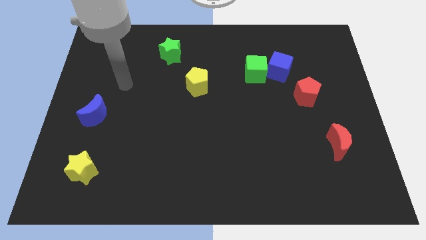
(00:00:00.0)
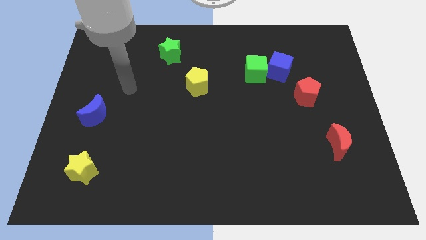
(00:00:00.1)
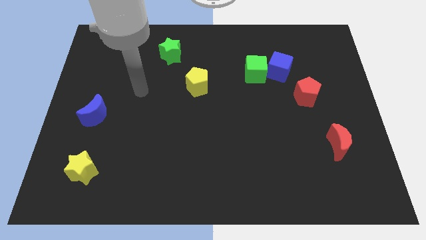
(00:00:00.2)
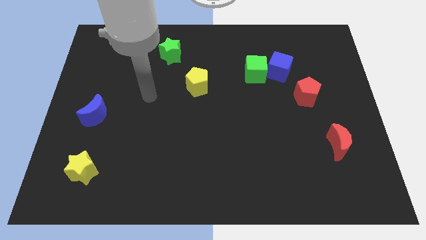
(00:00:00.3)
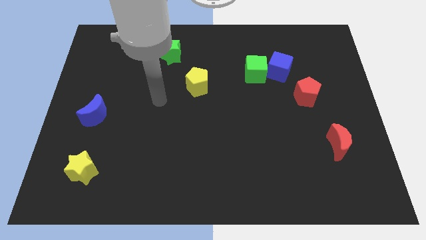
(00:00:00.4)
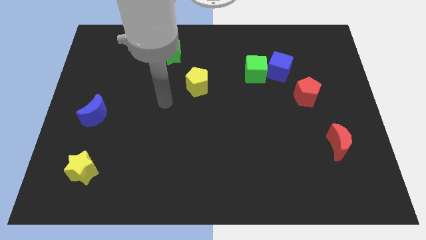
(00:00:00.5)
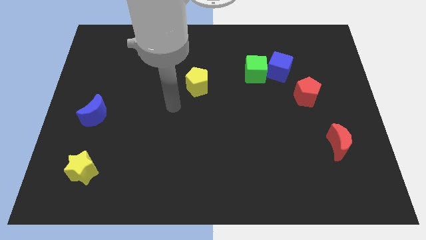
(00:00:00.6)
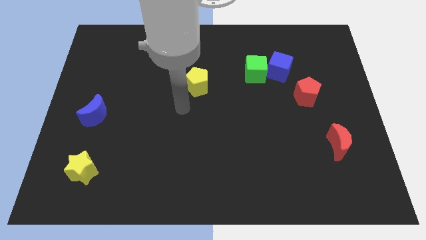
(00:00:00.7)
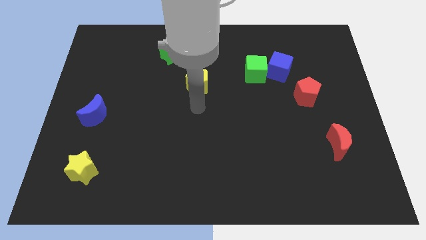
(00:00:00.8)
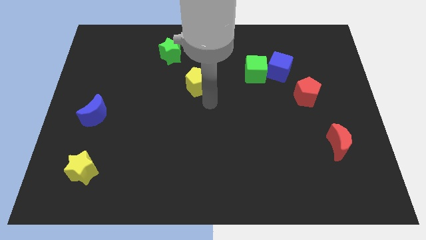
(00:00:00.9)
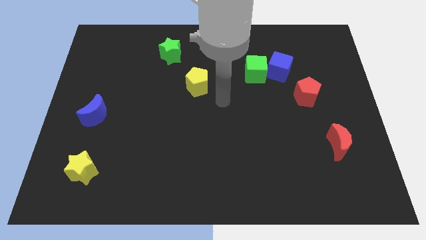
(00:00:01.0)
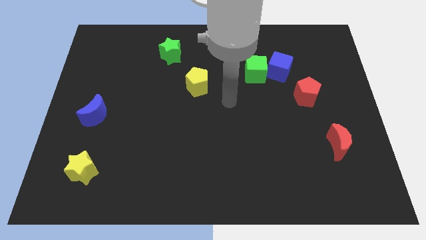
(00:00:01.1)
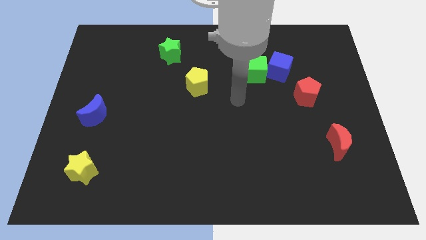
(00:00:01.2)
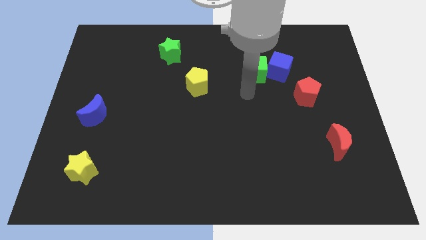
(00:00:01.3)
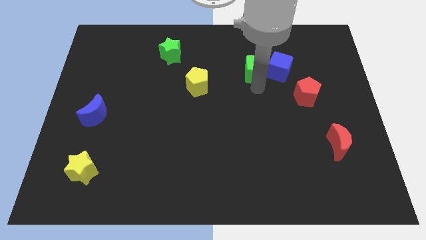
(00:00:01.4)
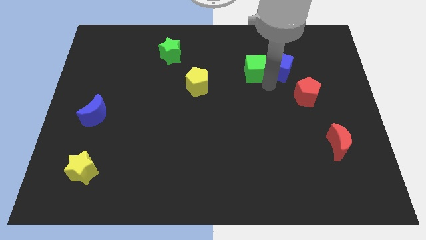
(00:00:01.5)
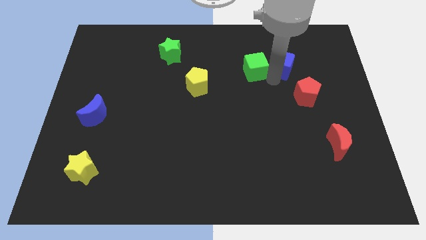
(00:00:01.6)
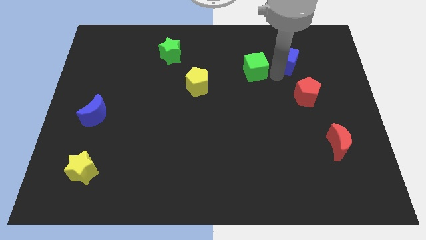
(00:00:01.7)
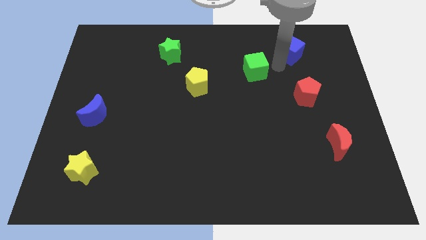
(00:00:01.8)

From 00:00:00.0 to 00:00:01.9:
pull the green cube apart from the blue cube

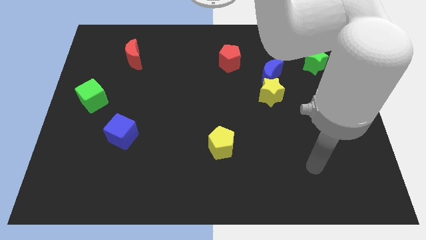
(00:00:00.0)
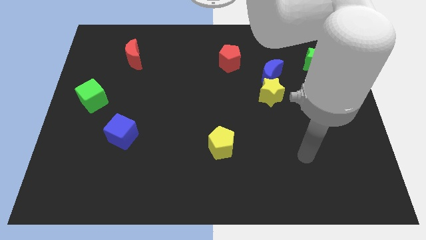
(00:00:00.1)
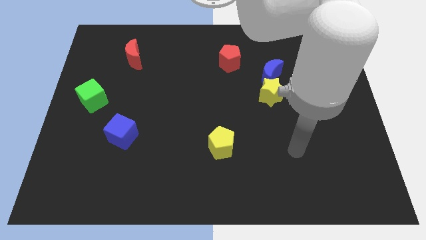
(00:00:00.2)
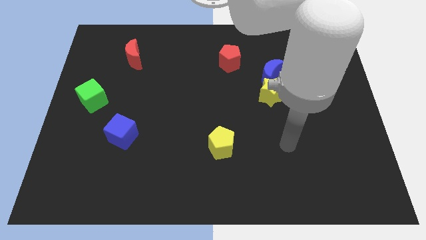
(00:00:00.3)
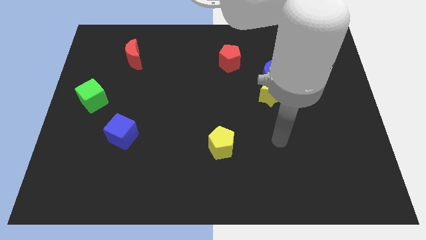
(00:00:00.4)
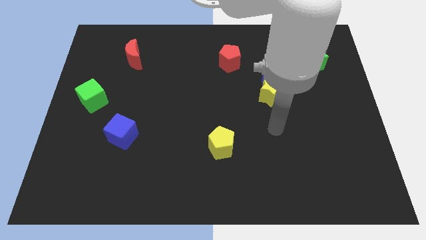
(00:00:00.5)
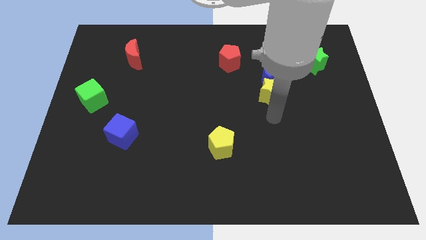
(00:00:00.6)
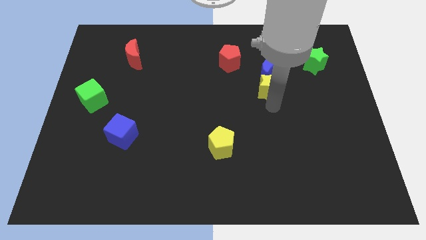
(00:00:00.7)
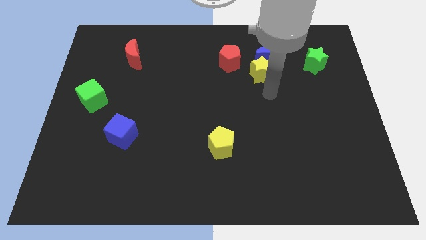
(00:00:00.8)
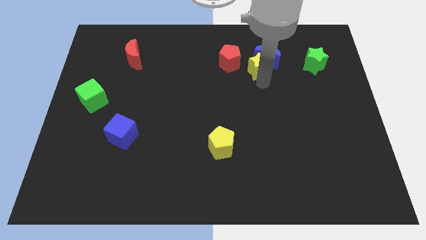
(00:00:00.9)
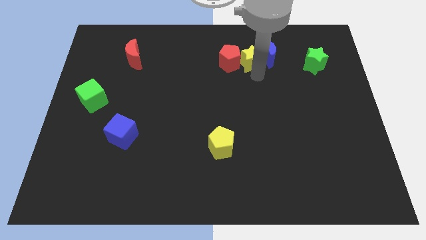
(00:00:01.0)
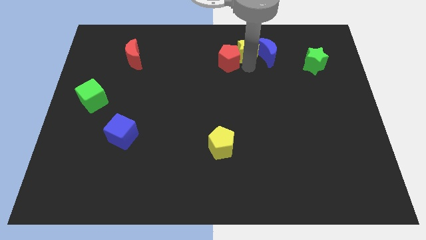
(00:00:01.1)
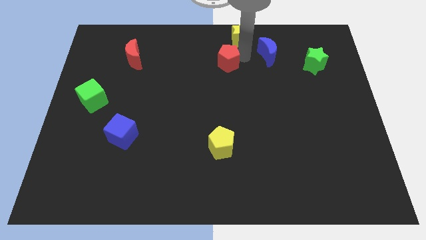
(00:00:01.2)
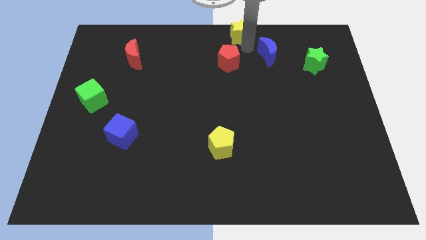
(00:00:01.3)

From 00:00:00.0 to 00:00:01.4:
separate the blue moon from the yellow star

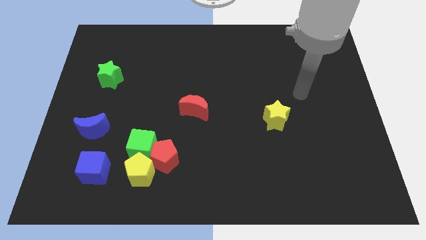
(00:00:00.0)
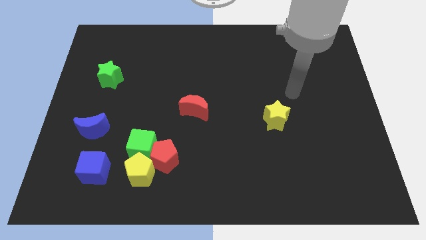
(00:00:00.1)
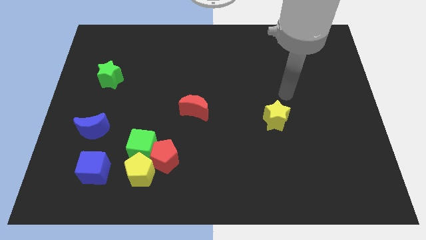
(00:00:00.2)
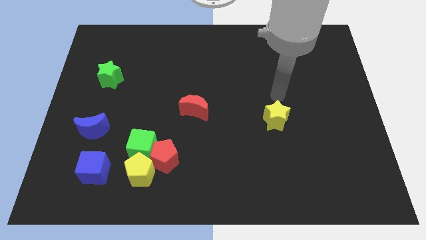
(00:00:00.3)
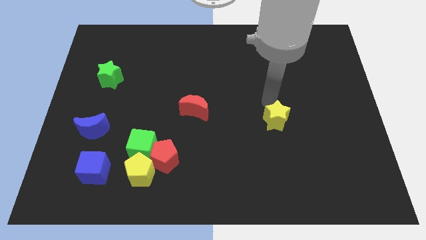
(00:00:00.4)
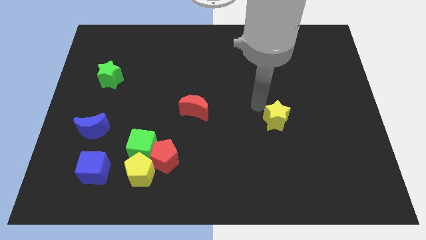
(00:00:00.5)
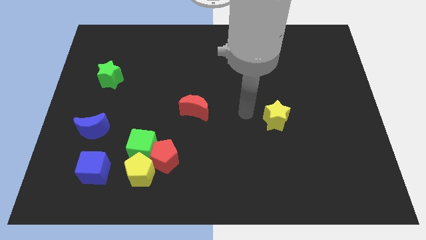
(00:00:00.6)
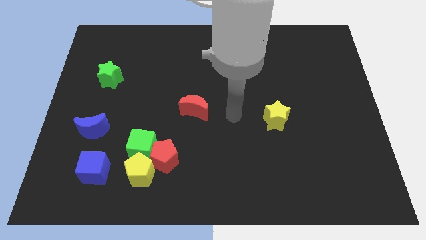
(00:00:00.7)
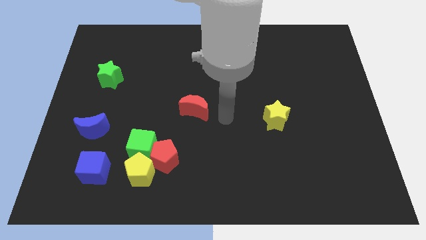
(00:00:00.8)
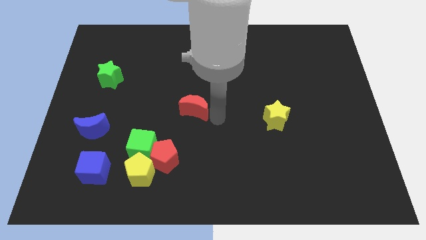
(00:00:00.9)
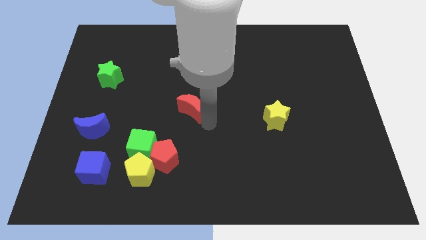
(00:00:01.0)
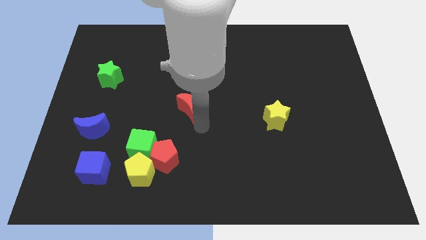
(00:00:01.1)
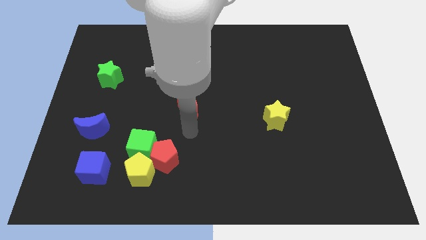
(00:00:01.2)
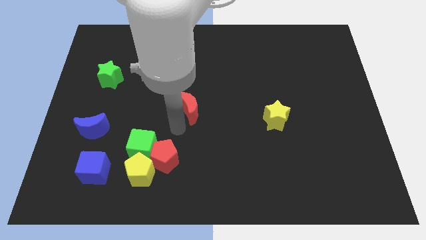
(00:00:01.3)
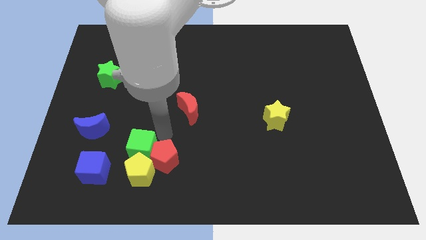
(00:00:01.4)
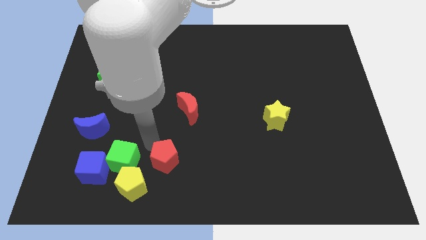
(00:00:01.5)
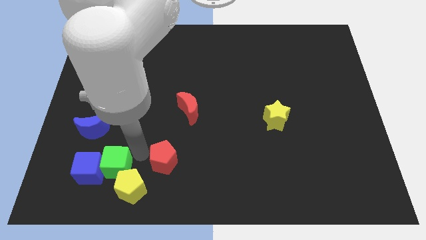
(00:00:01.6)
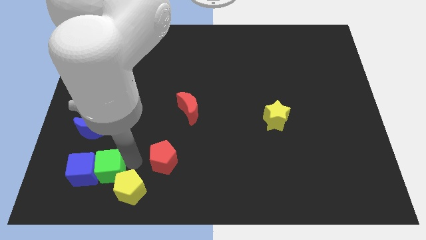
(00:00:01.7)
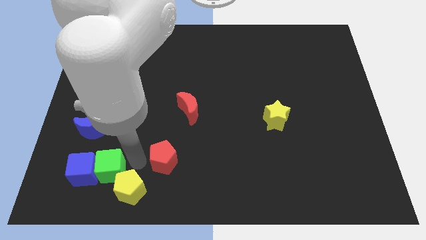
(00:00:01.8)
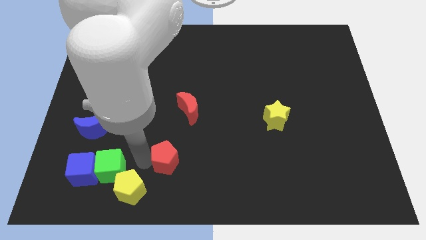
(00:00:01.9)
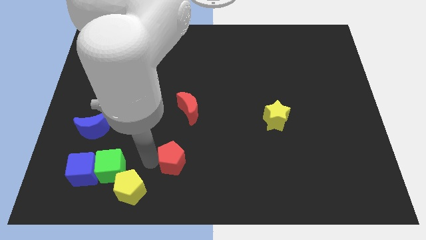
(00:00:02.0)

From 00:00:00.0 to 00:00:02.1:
move the red pentagon away from the green cube and yellow pentagon

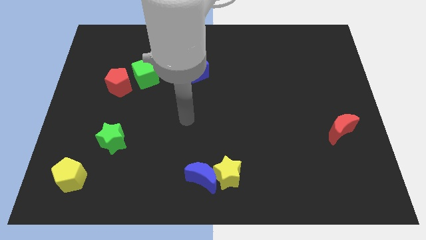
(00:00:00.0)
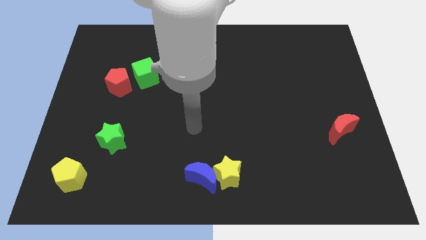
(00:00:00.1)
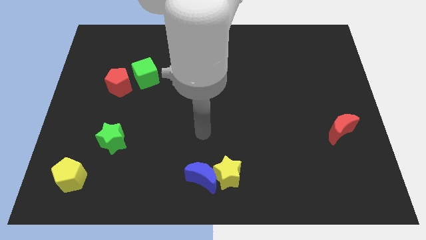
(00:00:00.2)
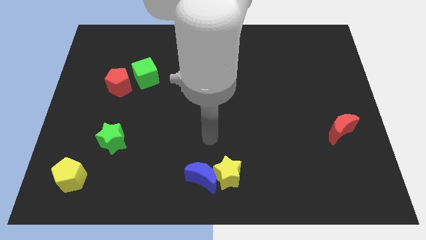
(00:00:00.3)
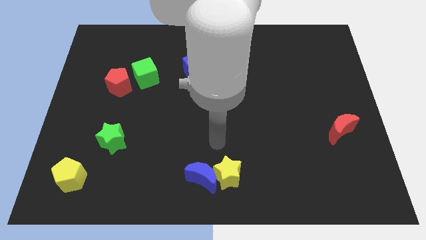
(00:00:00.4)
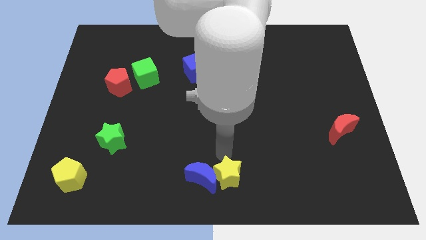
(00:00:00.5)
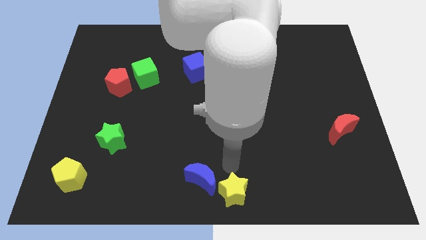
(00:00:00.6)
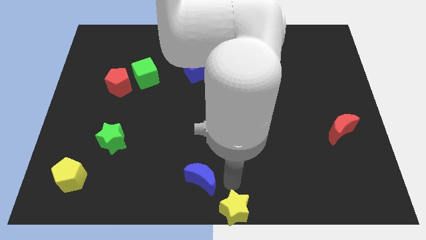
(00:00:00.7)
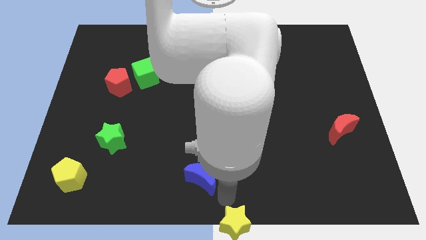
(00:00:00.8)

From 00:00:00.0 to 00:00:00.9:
move the blue moon away from the yellow star

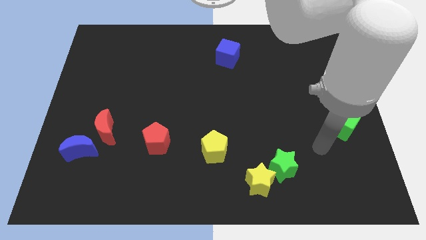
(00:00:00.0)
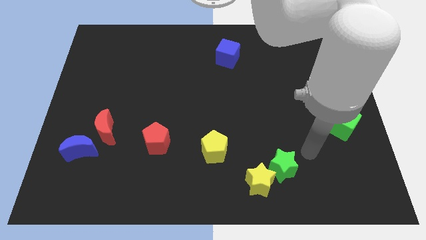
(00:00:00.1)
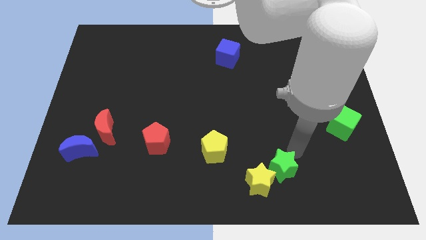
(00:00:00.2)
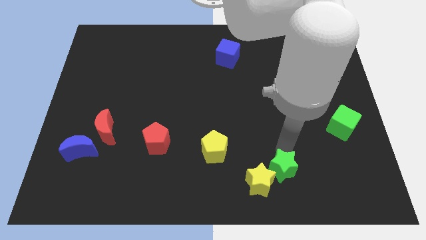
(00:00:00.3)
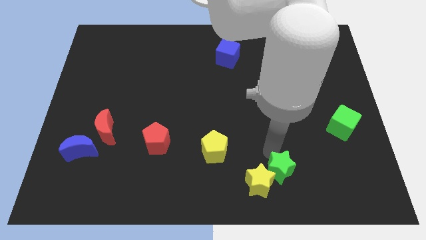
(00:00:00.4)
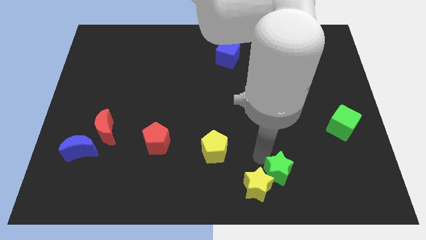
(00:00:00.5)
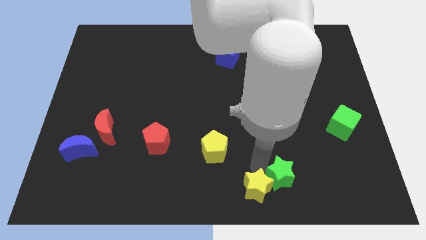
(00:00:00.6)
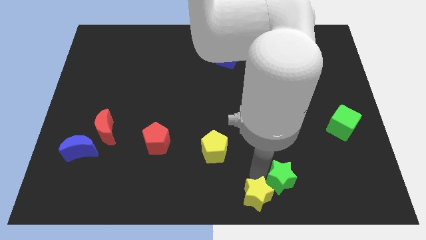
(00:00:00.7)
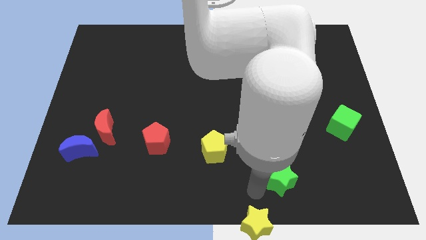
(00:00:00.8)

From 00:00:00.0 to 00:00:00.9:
move the green star away from the yellow star

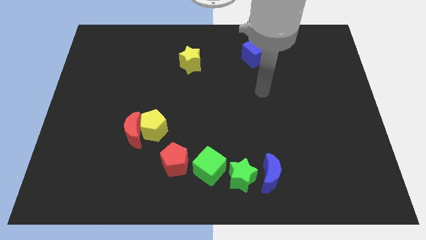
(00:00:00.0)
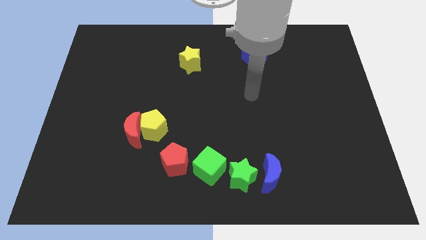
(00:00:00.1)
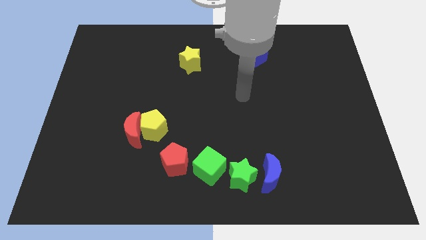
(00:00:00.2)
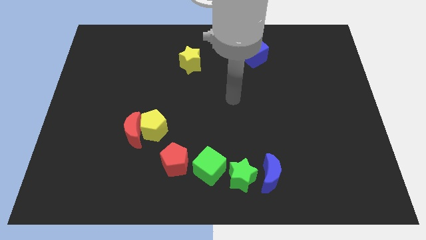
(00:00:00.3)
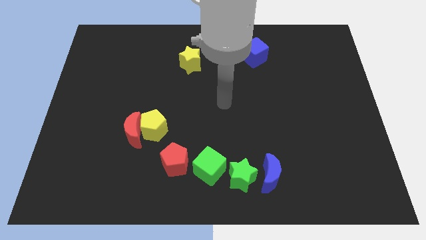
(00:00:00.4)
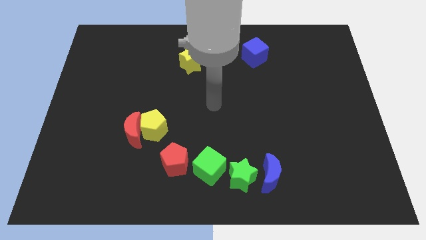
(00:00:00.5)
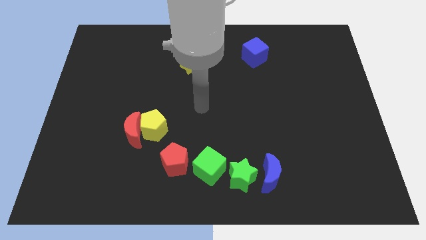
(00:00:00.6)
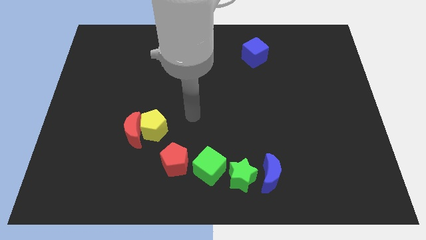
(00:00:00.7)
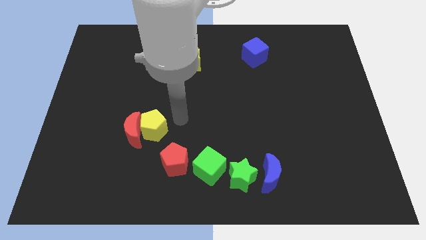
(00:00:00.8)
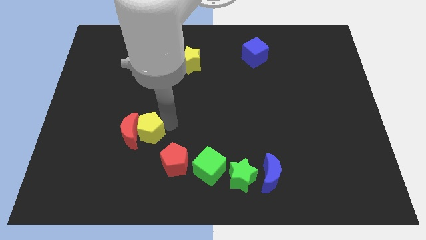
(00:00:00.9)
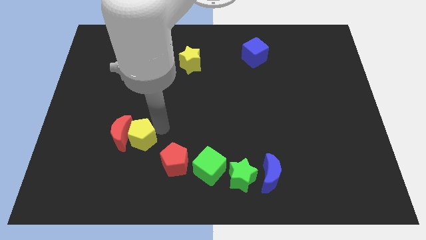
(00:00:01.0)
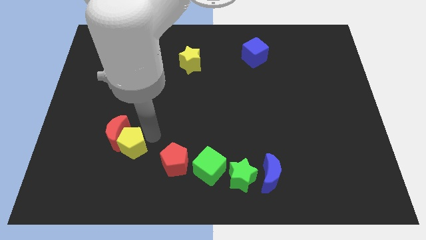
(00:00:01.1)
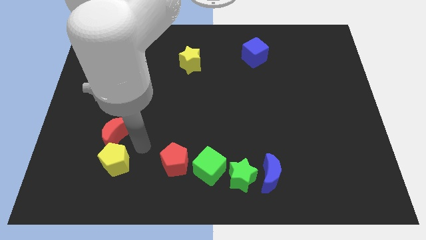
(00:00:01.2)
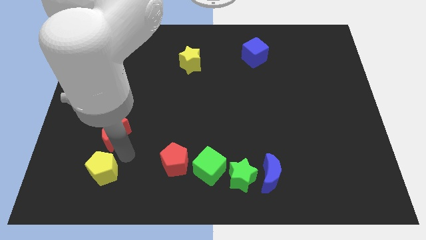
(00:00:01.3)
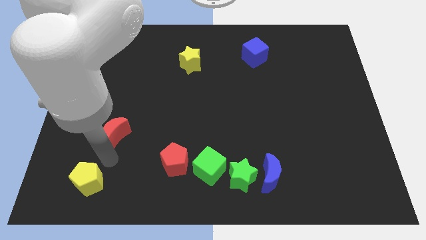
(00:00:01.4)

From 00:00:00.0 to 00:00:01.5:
move the red moon away from the yellow pentagon

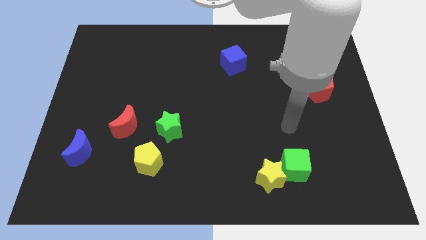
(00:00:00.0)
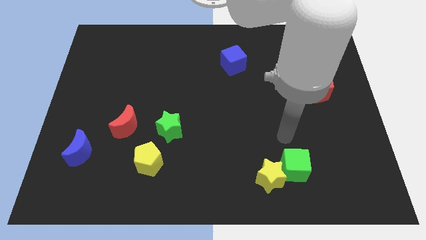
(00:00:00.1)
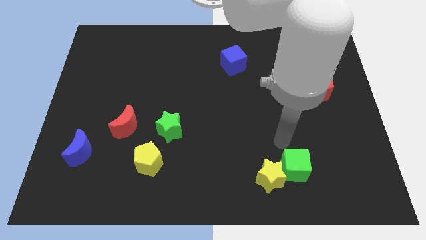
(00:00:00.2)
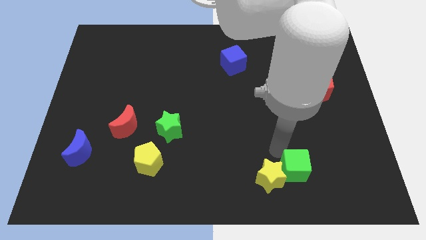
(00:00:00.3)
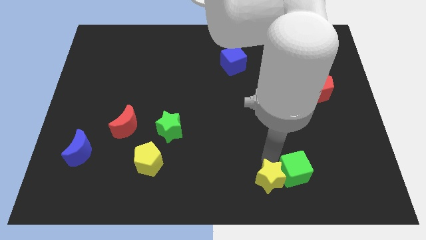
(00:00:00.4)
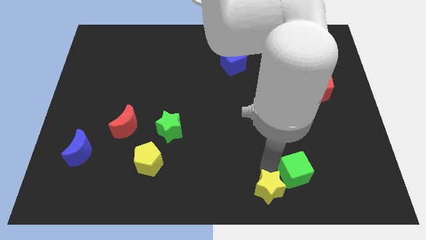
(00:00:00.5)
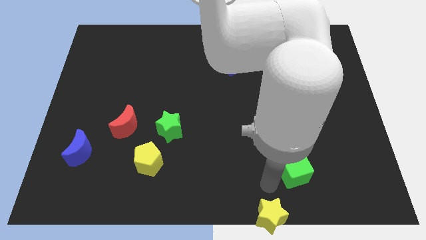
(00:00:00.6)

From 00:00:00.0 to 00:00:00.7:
move the green cube away from the yellow star
